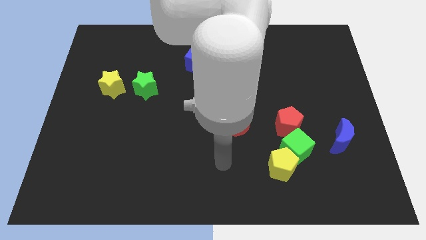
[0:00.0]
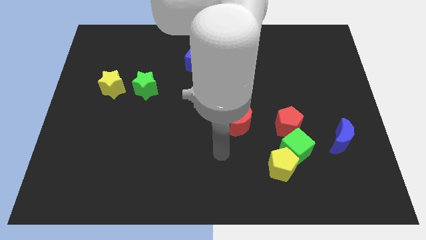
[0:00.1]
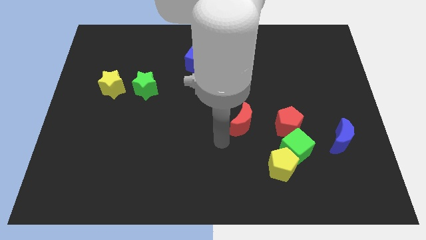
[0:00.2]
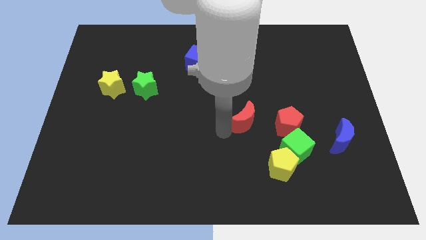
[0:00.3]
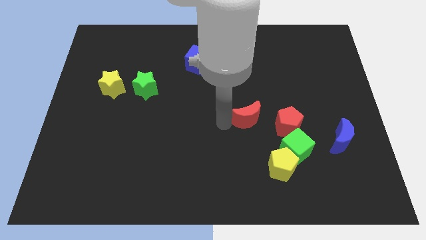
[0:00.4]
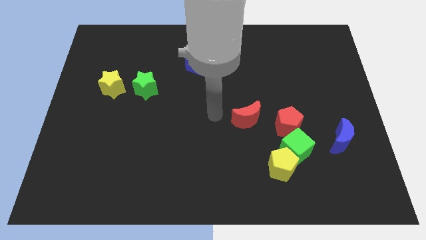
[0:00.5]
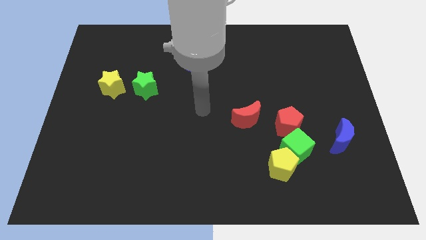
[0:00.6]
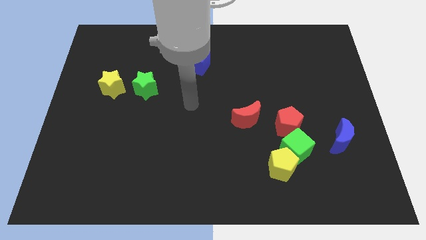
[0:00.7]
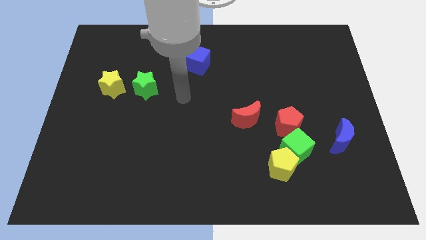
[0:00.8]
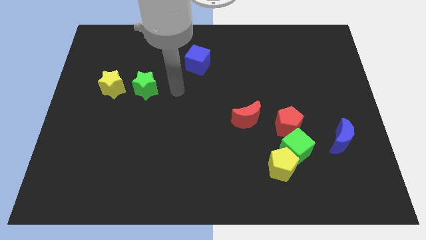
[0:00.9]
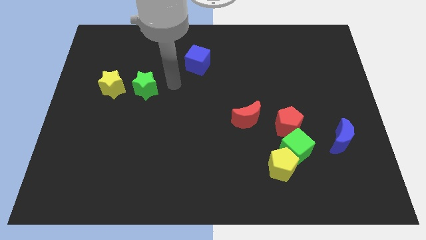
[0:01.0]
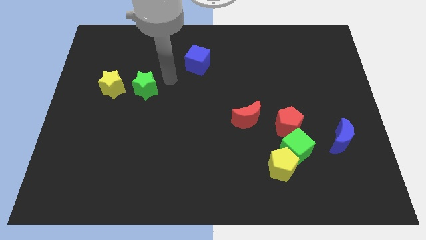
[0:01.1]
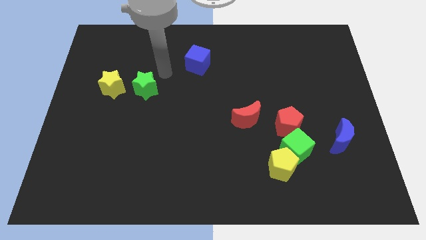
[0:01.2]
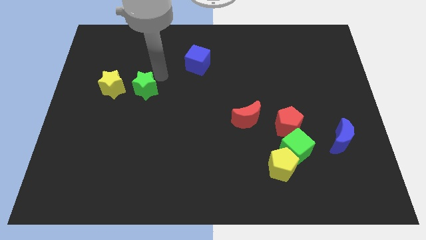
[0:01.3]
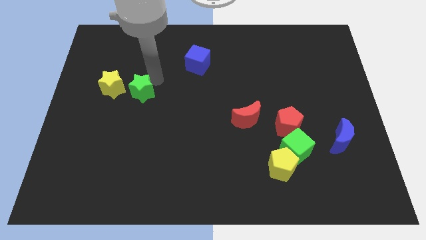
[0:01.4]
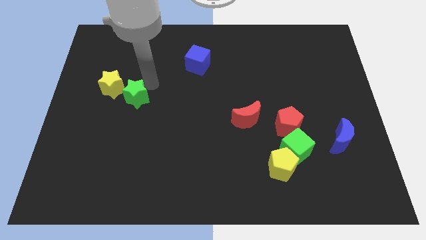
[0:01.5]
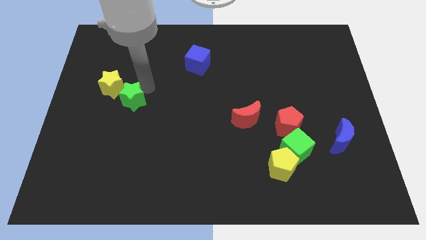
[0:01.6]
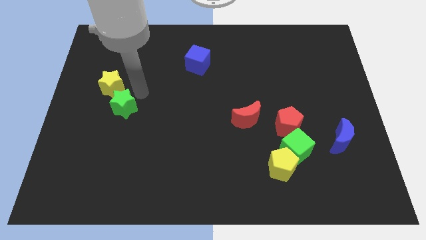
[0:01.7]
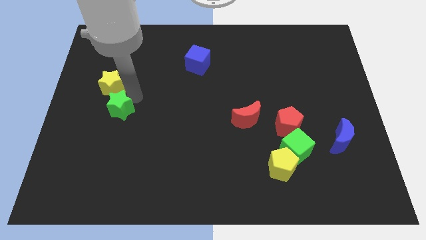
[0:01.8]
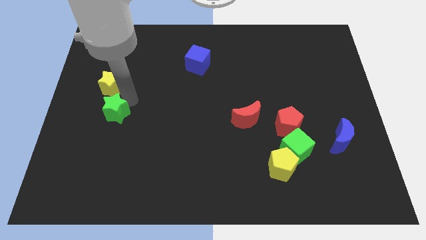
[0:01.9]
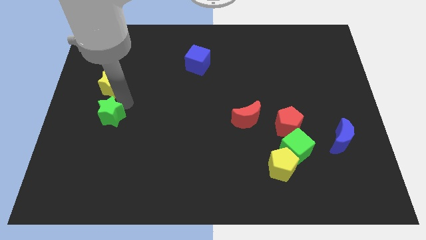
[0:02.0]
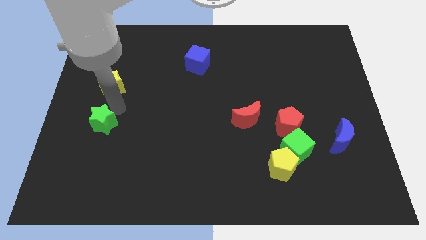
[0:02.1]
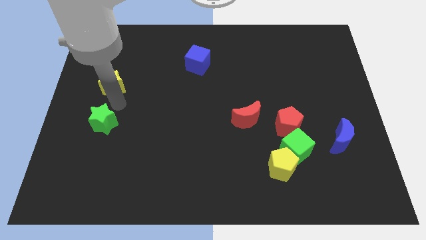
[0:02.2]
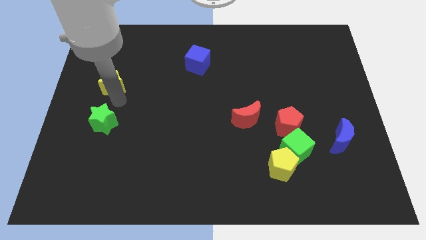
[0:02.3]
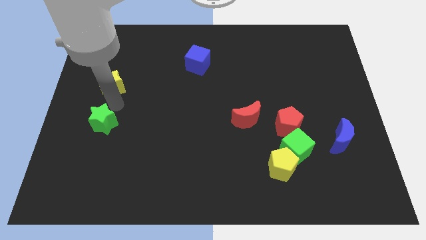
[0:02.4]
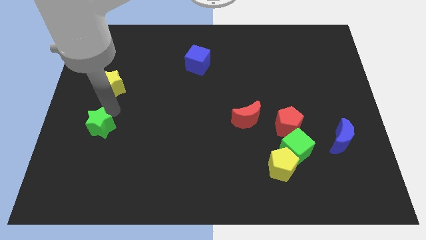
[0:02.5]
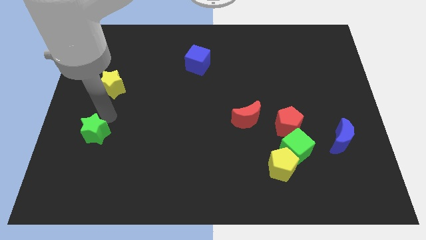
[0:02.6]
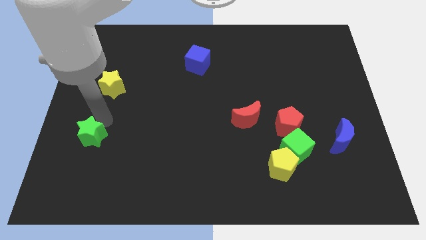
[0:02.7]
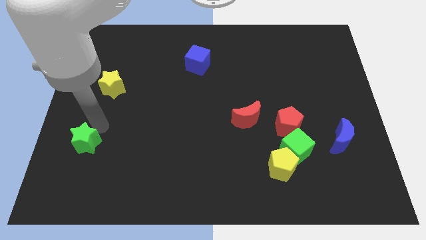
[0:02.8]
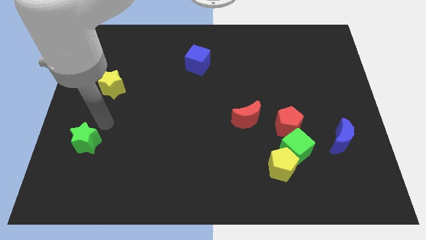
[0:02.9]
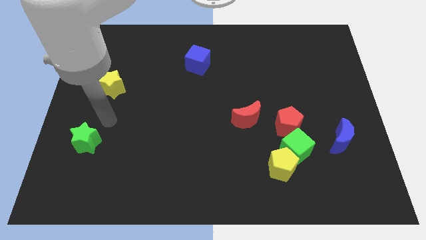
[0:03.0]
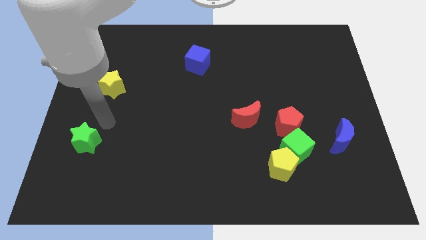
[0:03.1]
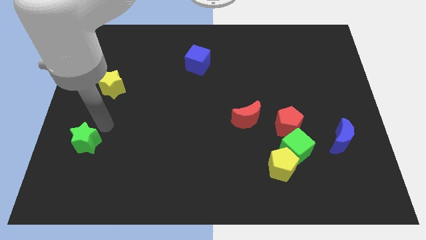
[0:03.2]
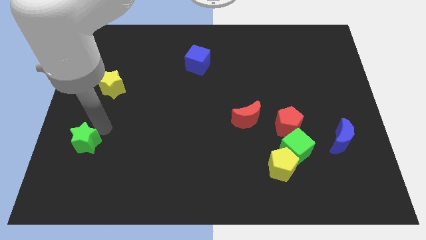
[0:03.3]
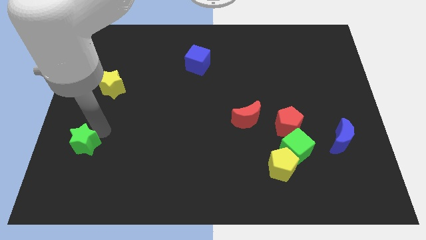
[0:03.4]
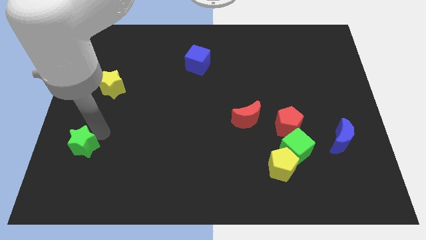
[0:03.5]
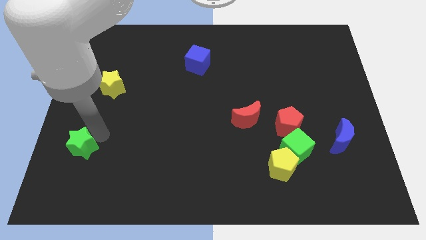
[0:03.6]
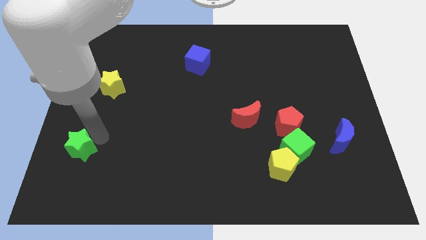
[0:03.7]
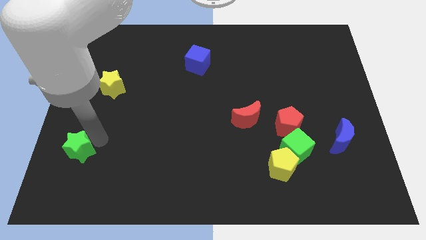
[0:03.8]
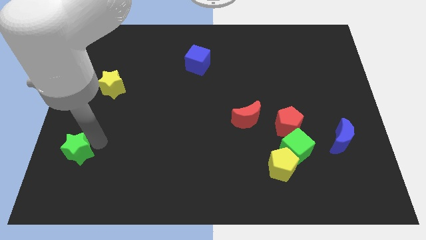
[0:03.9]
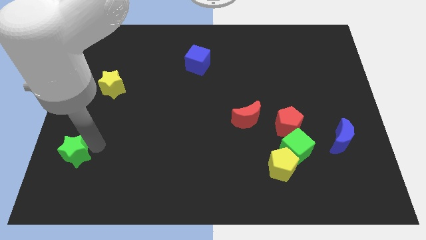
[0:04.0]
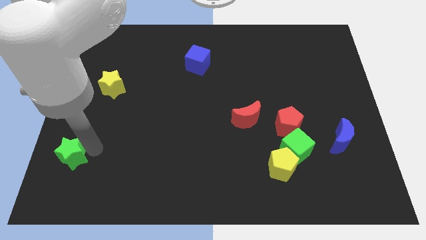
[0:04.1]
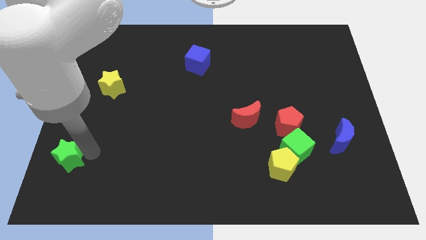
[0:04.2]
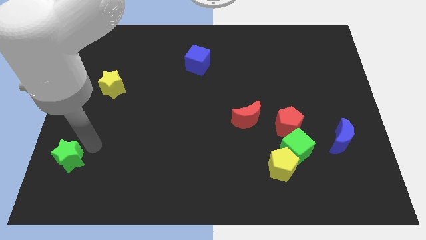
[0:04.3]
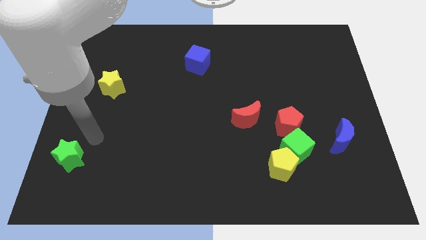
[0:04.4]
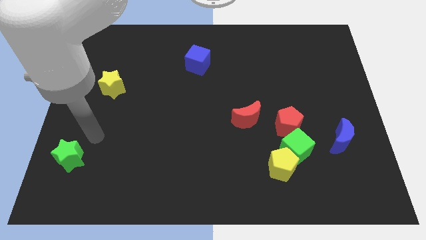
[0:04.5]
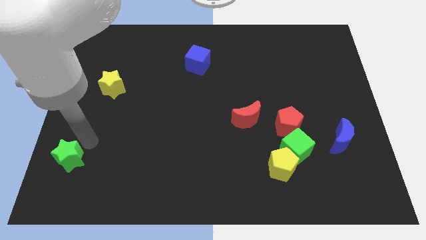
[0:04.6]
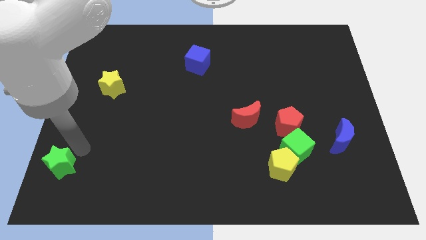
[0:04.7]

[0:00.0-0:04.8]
push the green star to the lower left corner

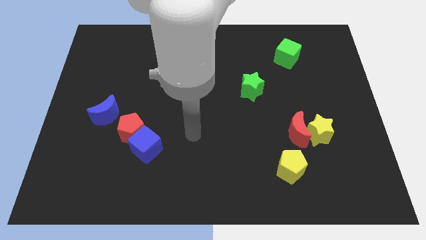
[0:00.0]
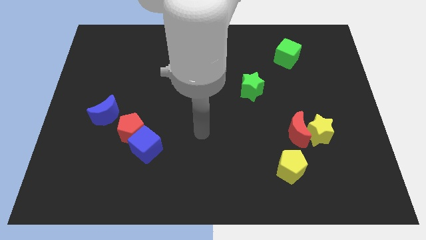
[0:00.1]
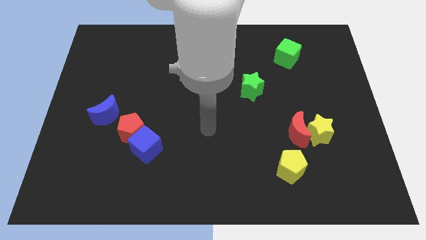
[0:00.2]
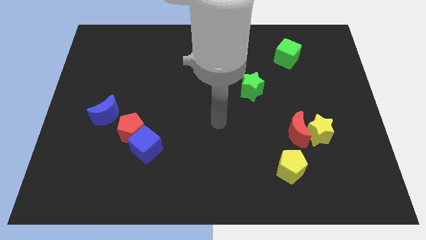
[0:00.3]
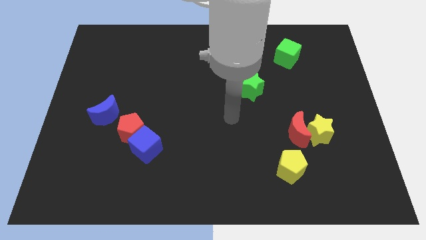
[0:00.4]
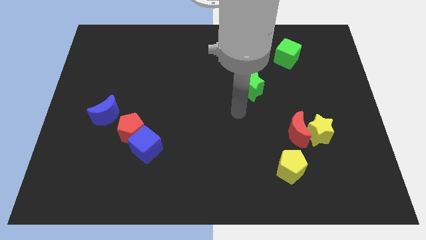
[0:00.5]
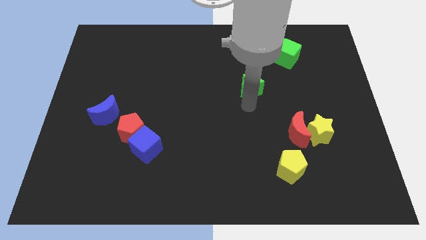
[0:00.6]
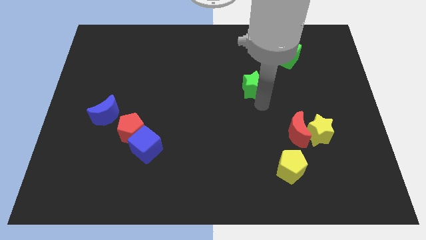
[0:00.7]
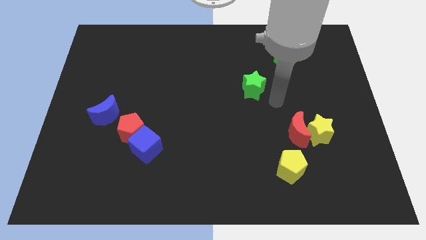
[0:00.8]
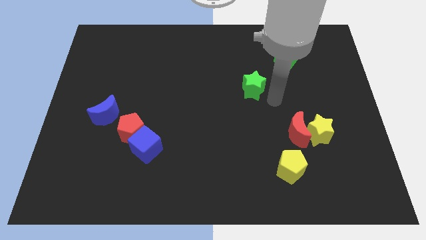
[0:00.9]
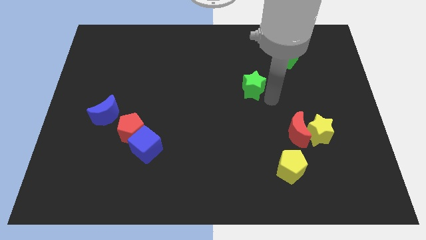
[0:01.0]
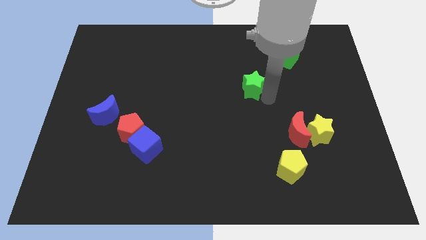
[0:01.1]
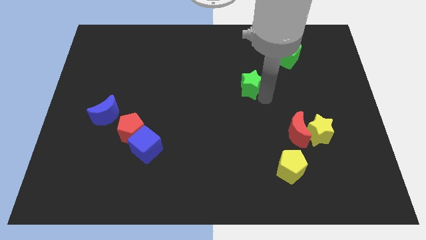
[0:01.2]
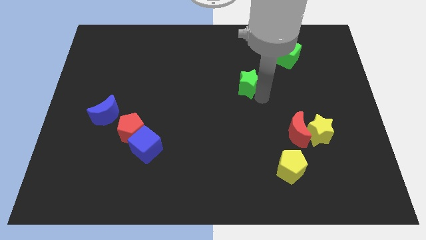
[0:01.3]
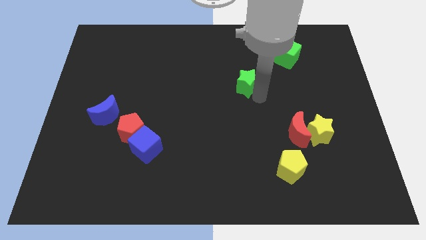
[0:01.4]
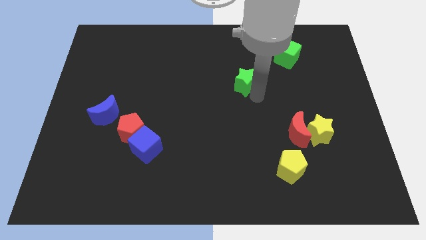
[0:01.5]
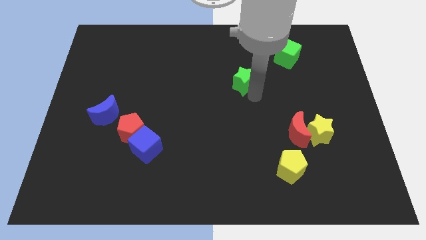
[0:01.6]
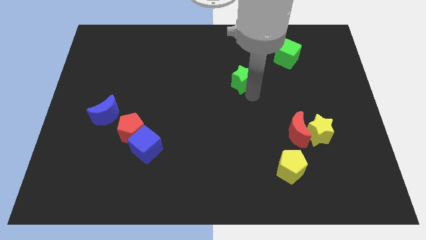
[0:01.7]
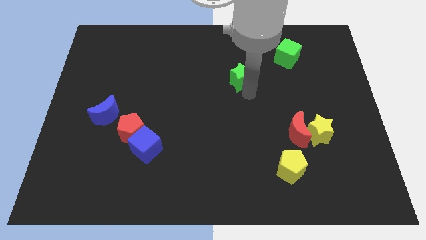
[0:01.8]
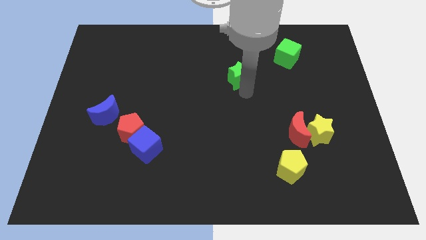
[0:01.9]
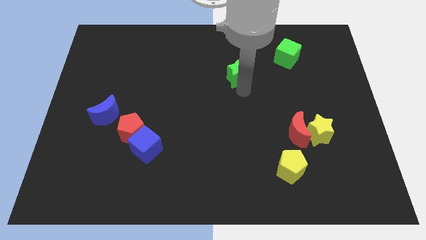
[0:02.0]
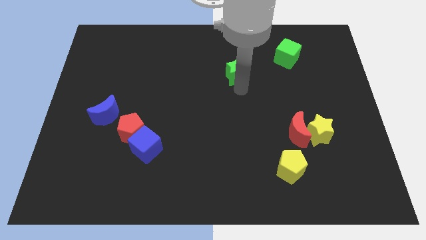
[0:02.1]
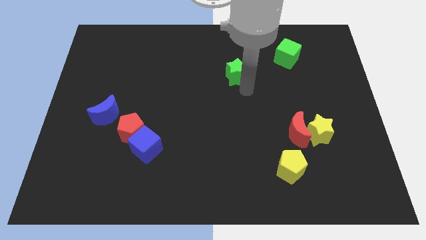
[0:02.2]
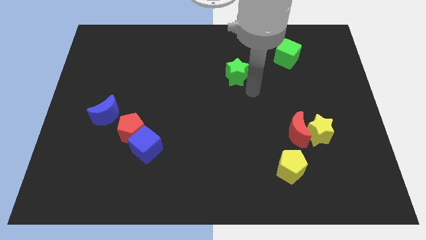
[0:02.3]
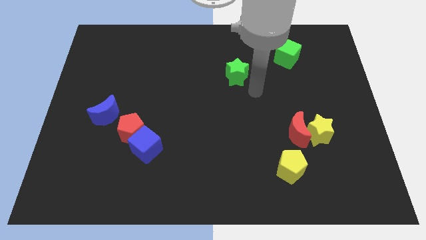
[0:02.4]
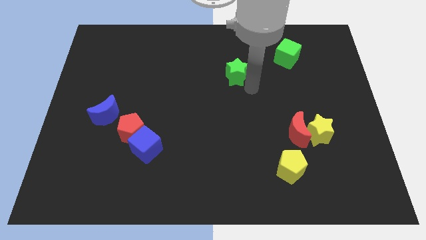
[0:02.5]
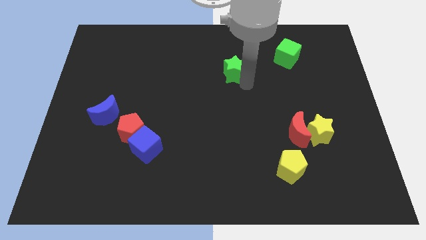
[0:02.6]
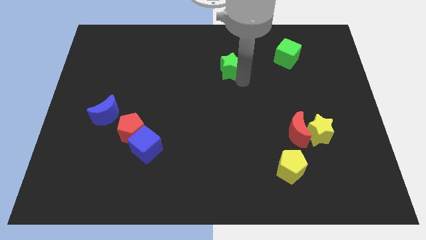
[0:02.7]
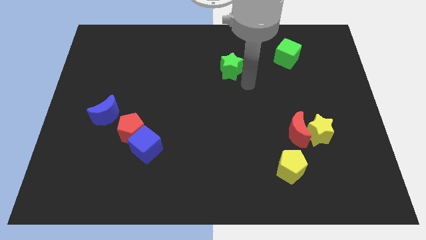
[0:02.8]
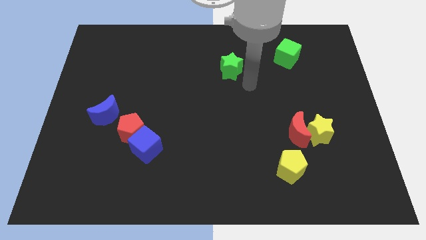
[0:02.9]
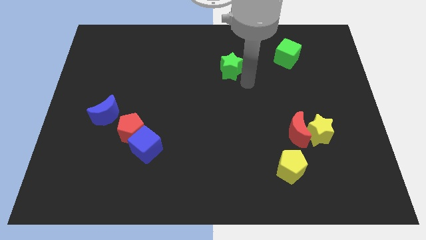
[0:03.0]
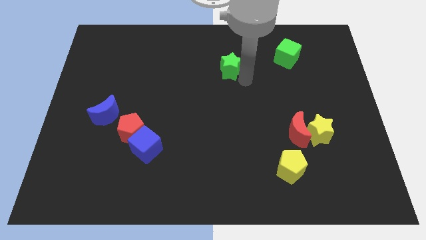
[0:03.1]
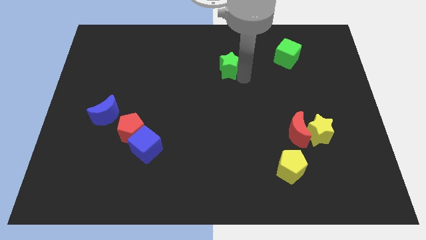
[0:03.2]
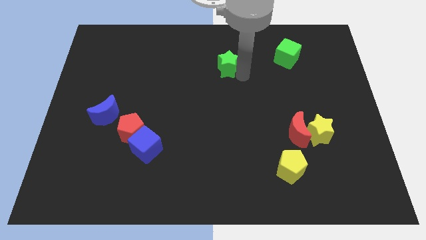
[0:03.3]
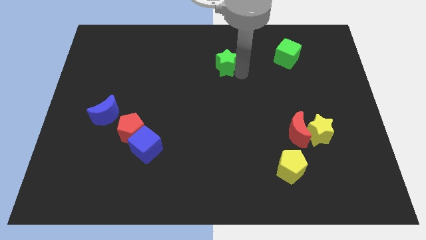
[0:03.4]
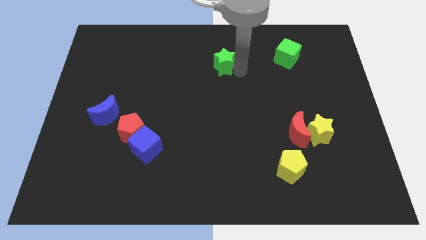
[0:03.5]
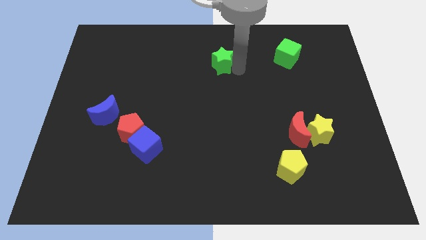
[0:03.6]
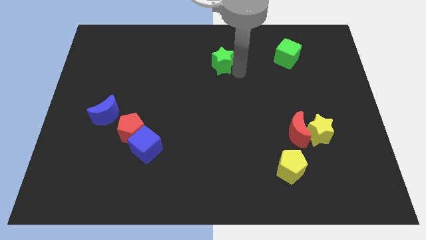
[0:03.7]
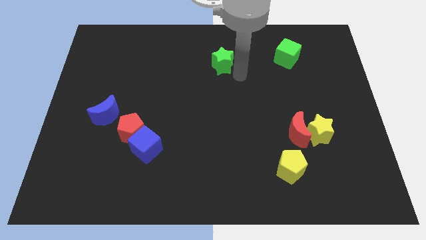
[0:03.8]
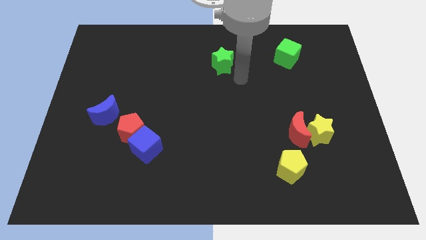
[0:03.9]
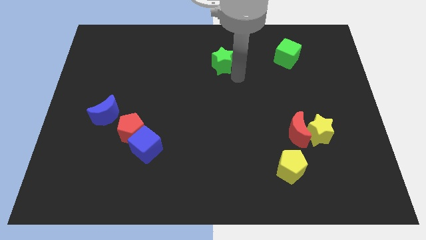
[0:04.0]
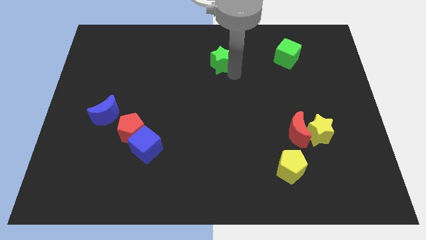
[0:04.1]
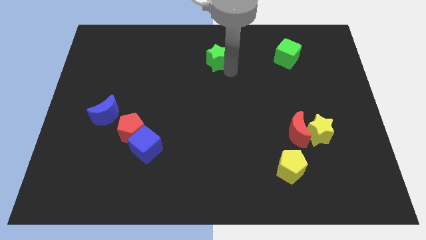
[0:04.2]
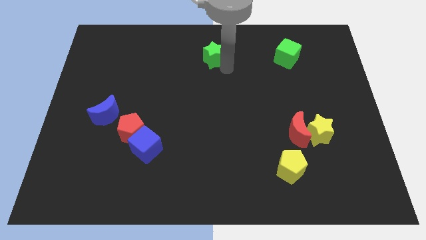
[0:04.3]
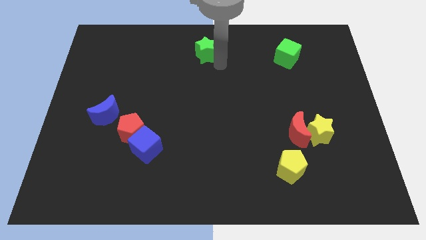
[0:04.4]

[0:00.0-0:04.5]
slide the green star to the top
